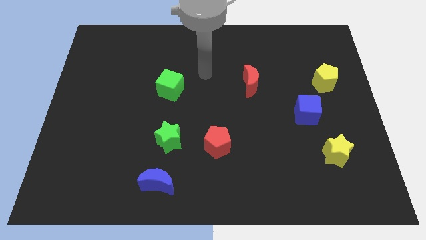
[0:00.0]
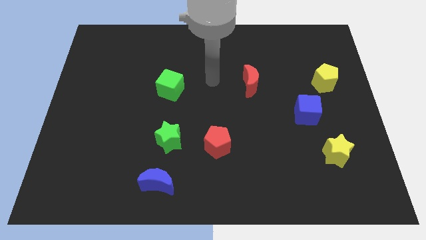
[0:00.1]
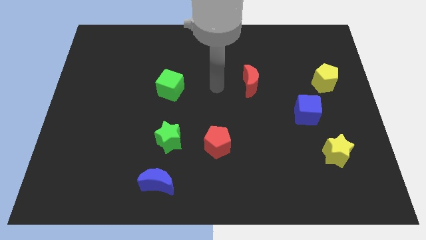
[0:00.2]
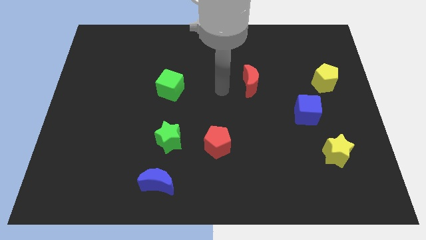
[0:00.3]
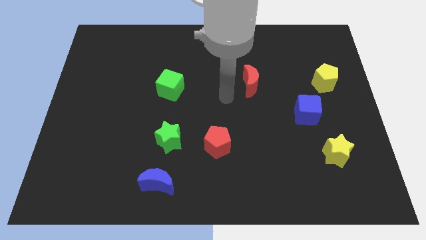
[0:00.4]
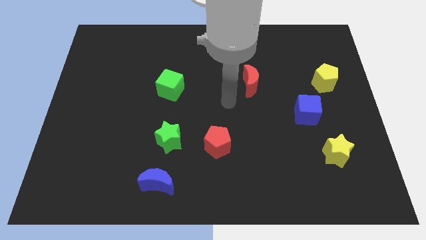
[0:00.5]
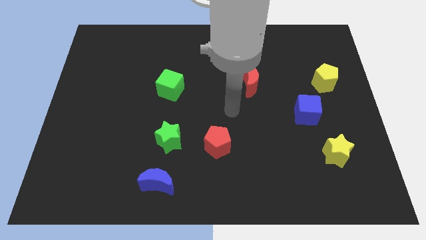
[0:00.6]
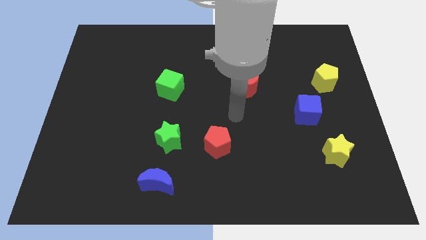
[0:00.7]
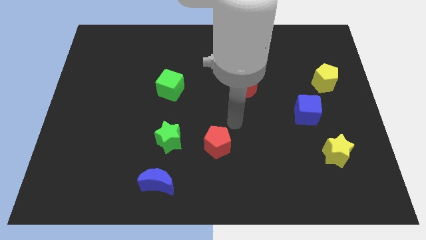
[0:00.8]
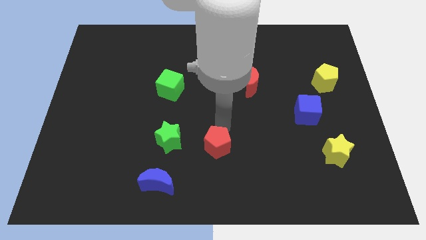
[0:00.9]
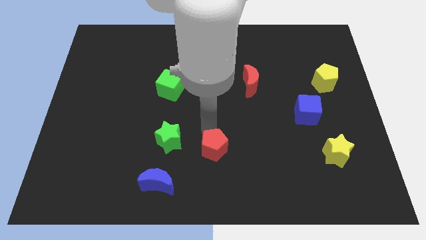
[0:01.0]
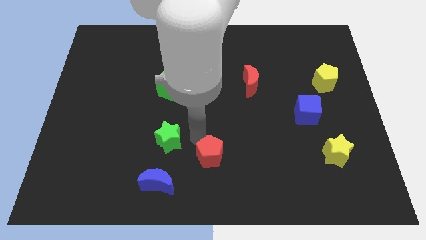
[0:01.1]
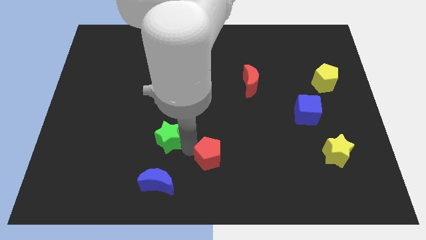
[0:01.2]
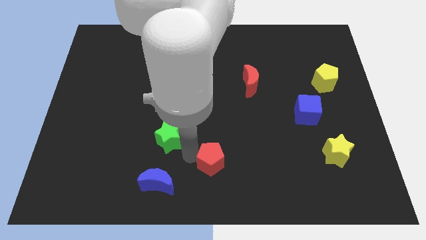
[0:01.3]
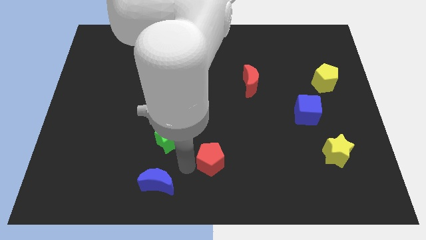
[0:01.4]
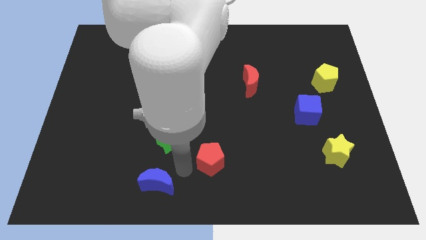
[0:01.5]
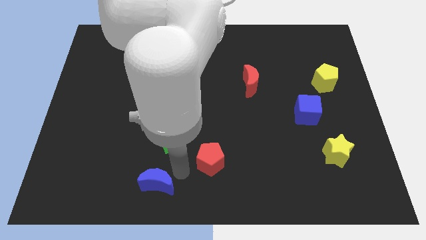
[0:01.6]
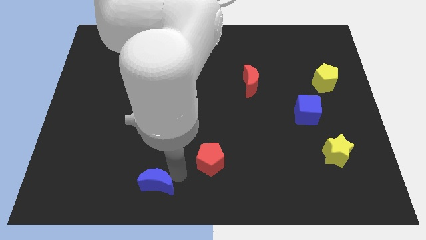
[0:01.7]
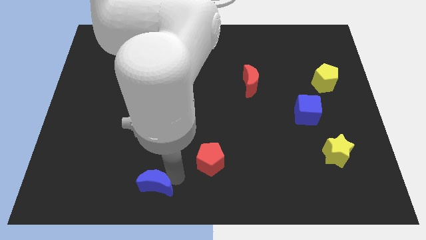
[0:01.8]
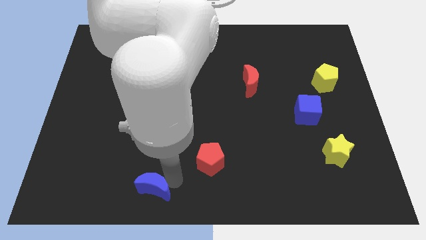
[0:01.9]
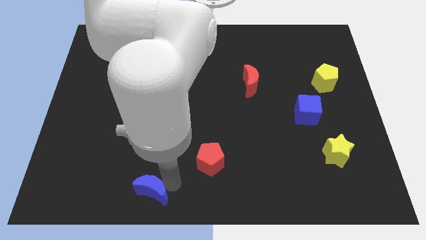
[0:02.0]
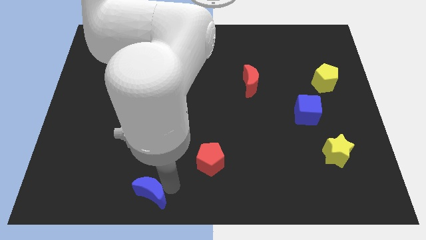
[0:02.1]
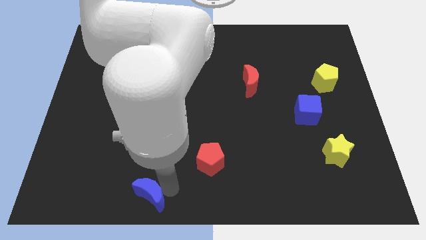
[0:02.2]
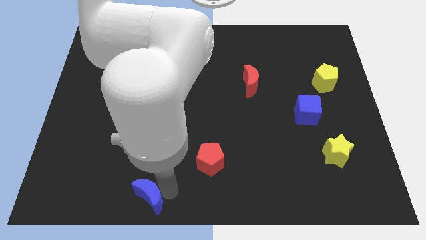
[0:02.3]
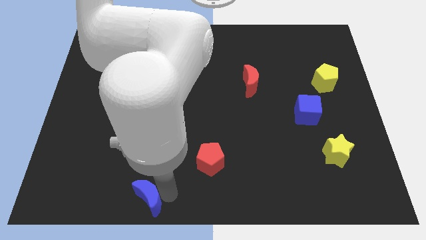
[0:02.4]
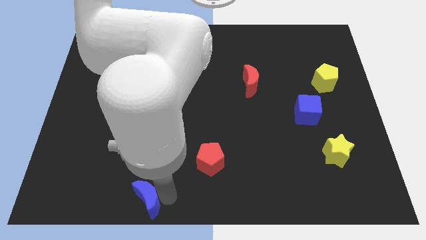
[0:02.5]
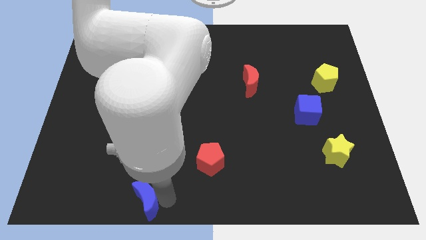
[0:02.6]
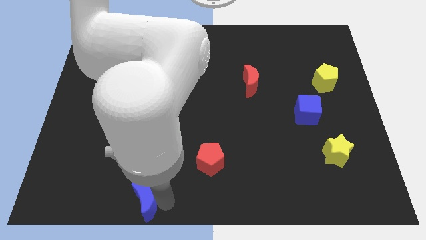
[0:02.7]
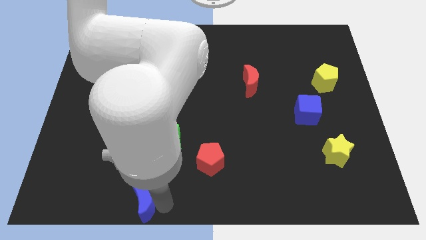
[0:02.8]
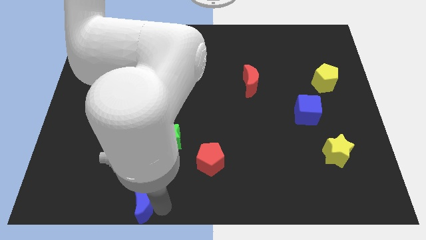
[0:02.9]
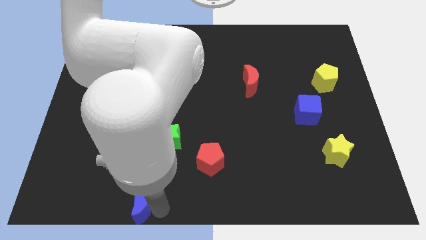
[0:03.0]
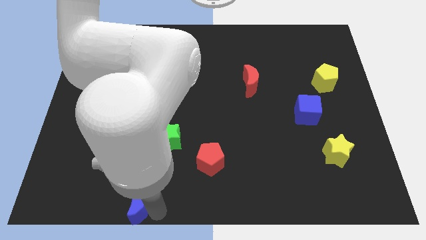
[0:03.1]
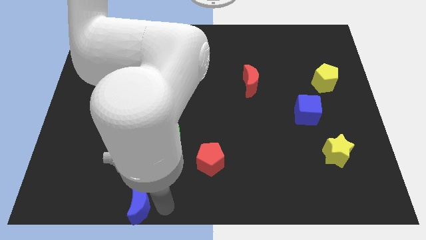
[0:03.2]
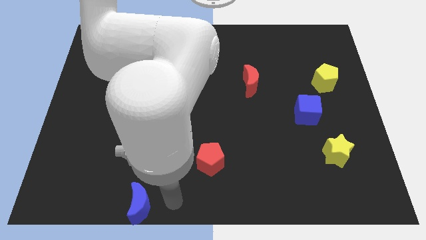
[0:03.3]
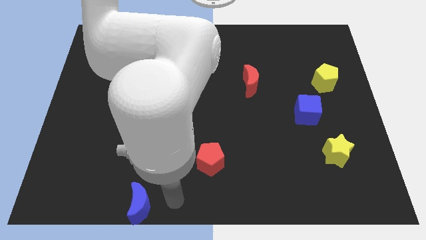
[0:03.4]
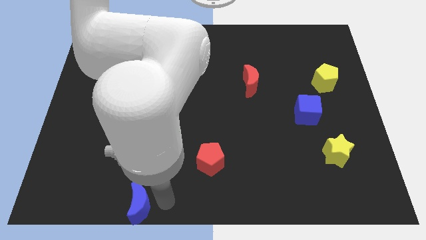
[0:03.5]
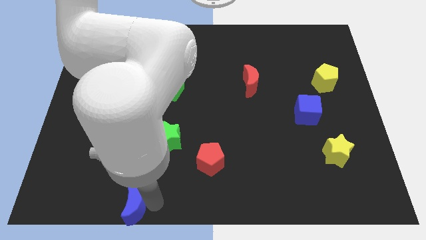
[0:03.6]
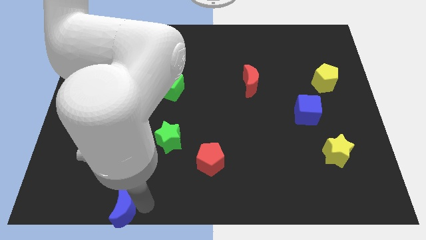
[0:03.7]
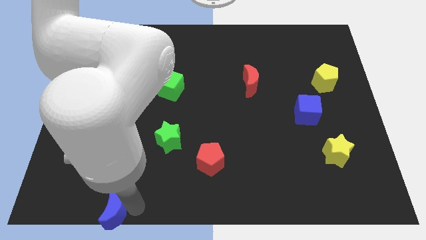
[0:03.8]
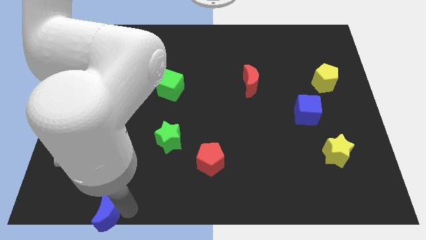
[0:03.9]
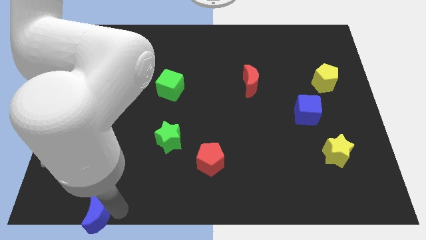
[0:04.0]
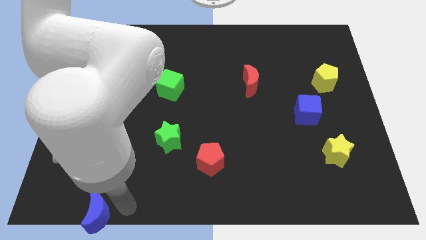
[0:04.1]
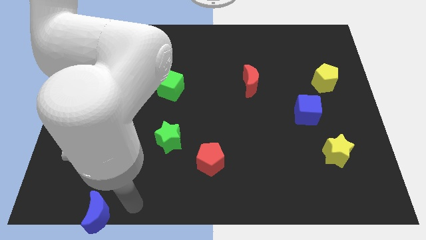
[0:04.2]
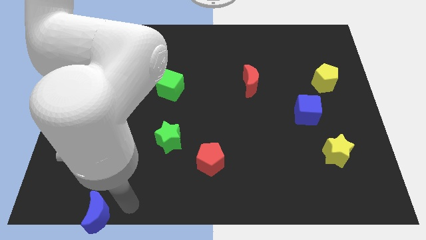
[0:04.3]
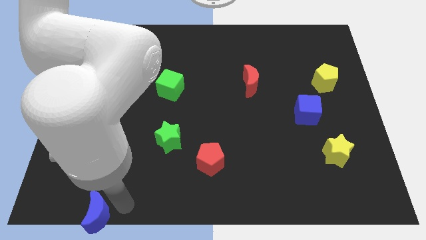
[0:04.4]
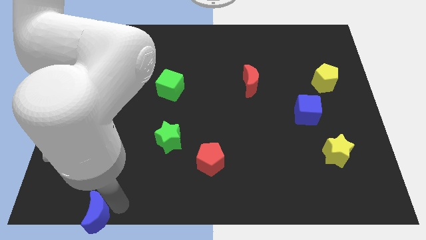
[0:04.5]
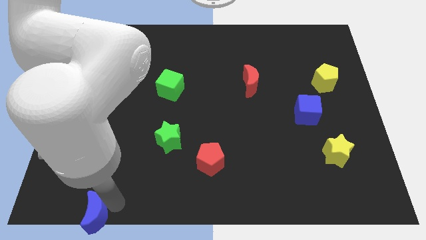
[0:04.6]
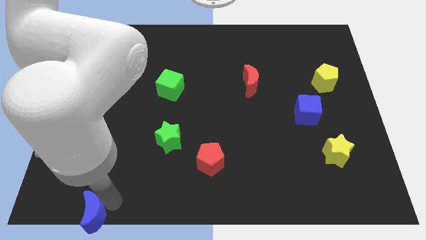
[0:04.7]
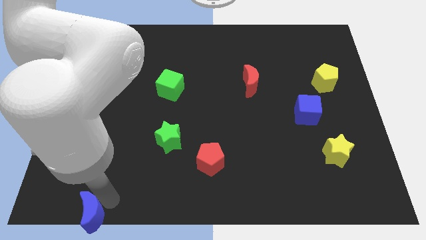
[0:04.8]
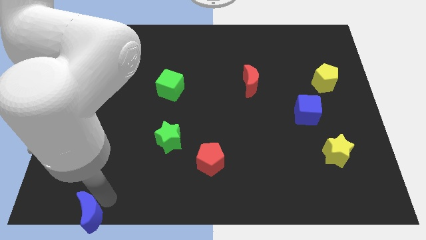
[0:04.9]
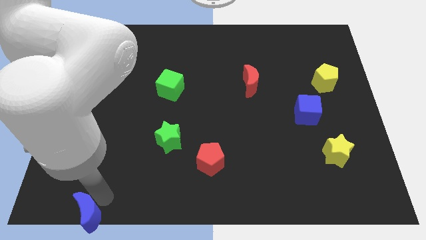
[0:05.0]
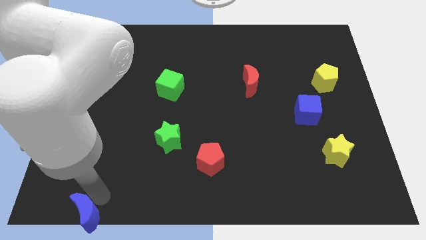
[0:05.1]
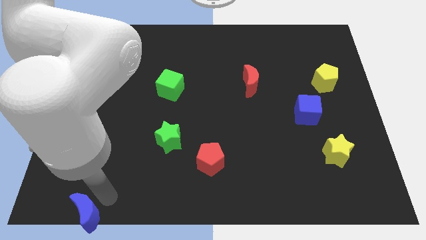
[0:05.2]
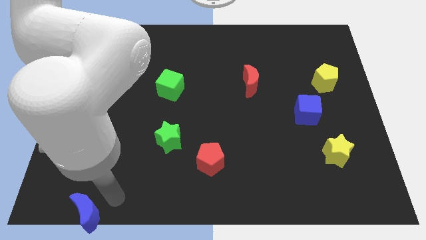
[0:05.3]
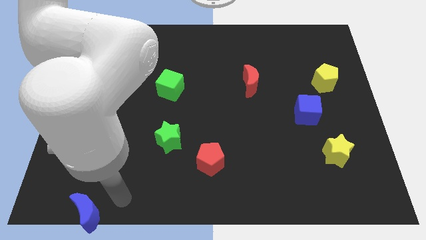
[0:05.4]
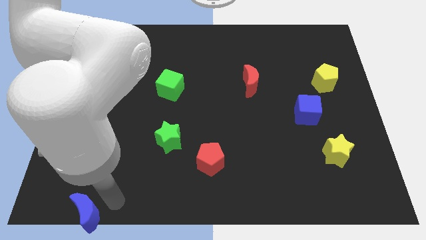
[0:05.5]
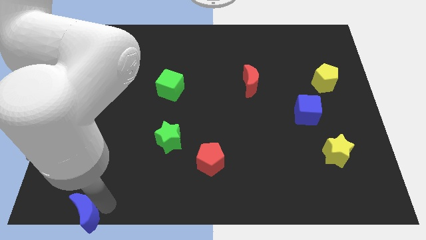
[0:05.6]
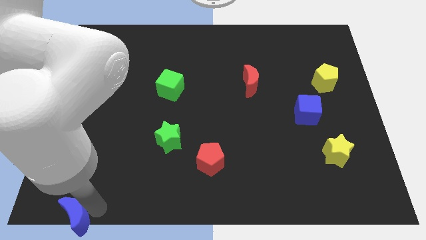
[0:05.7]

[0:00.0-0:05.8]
put the blue moon to the bottom left corner

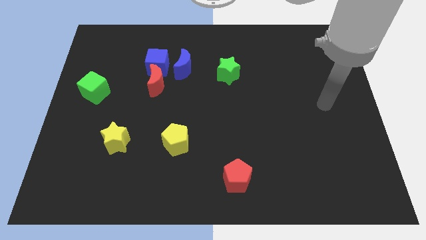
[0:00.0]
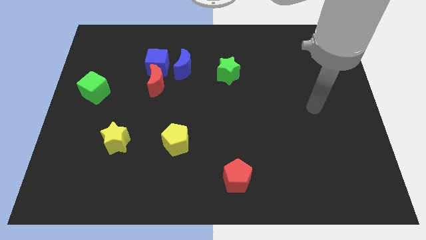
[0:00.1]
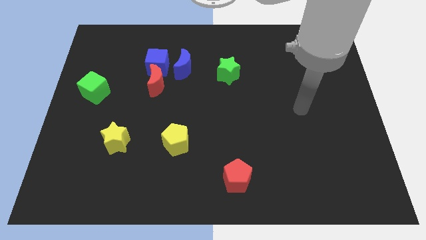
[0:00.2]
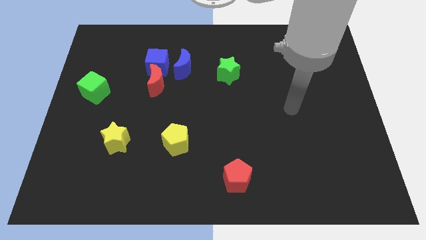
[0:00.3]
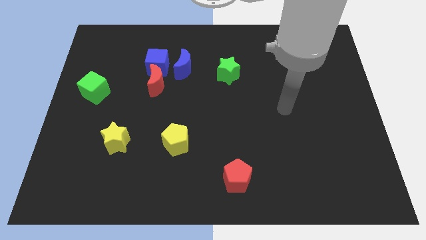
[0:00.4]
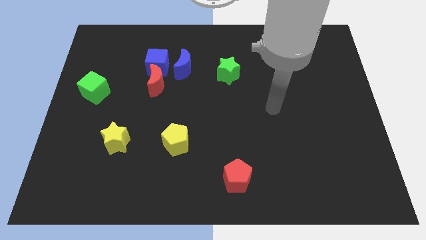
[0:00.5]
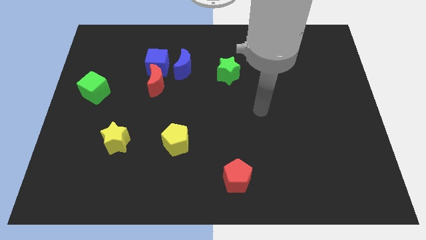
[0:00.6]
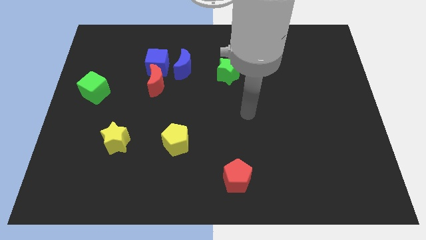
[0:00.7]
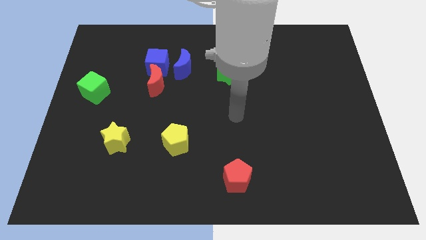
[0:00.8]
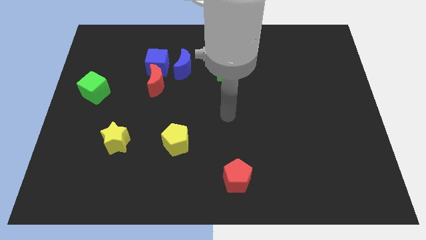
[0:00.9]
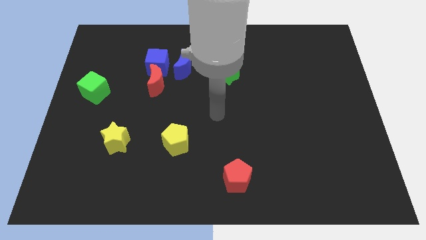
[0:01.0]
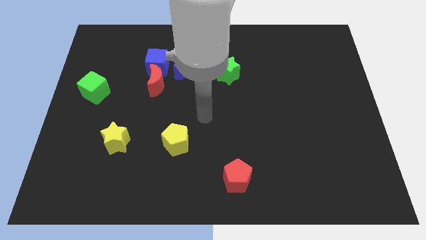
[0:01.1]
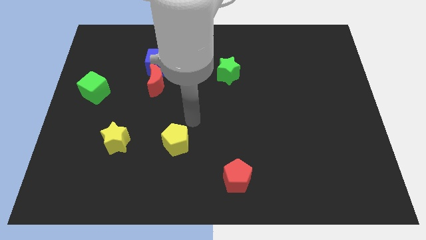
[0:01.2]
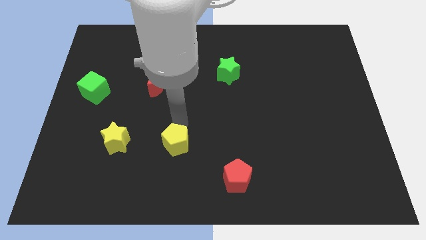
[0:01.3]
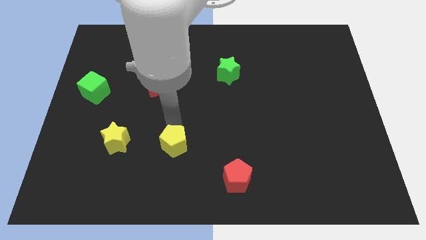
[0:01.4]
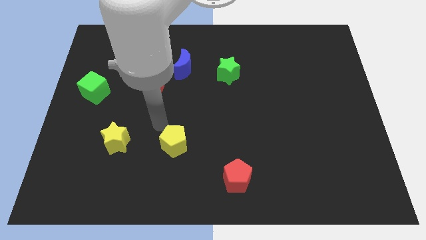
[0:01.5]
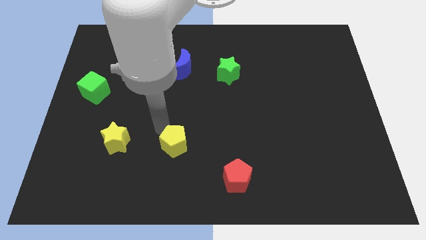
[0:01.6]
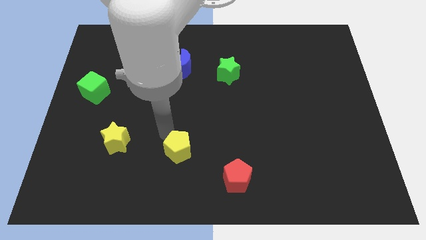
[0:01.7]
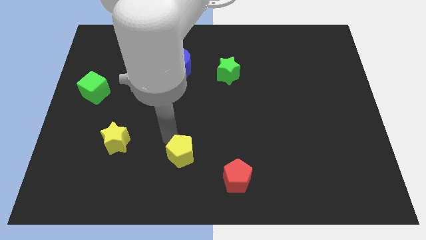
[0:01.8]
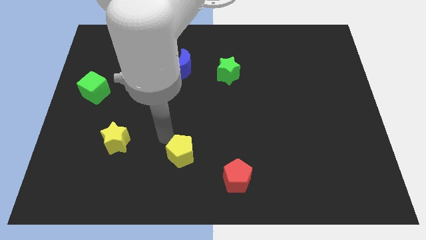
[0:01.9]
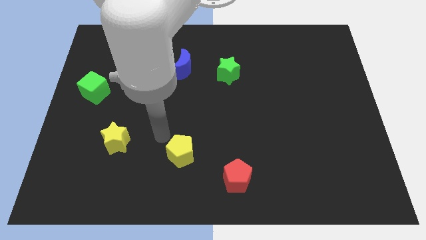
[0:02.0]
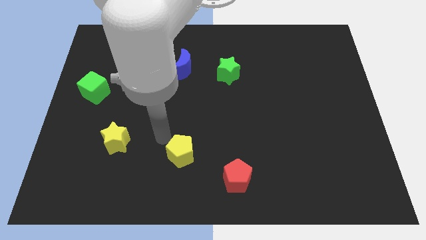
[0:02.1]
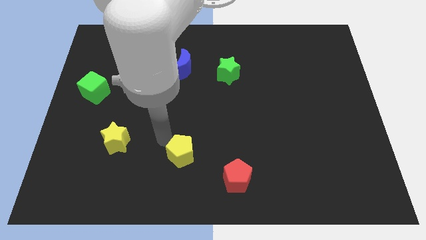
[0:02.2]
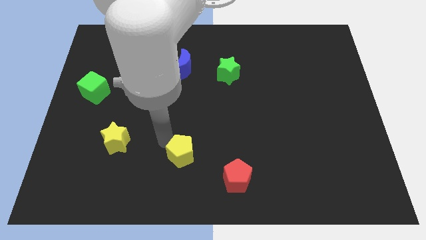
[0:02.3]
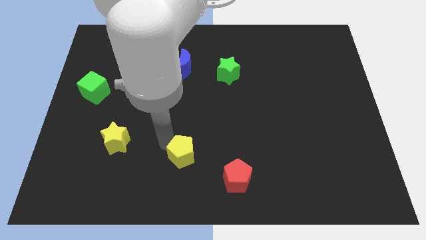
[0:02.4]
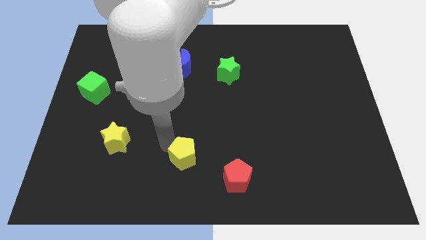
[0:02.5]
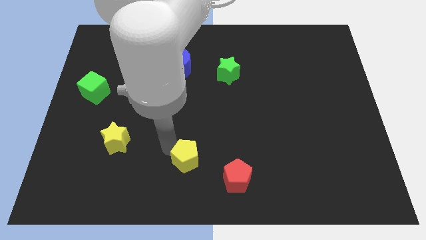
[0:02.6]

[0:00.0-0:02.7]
put the yellow pentagon to the bottom
